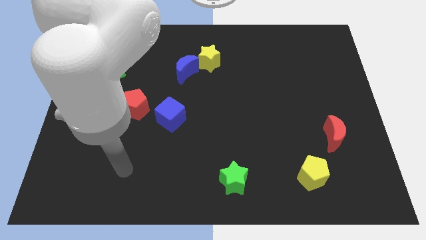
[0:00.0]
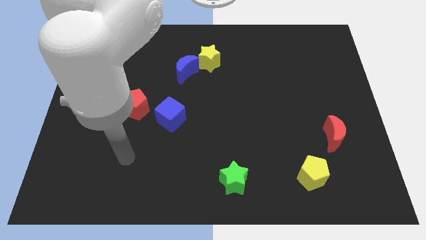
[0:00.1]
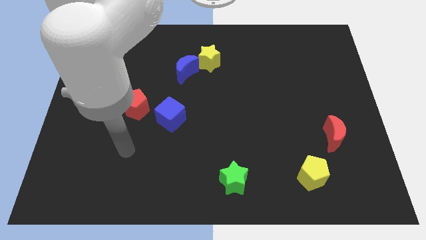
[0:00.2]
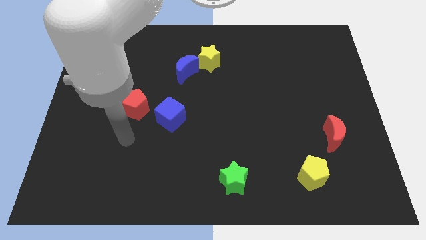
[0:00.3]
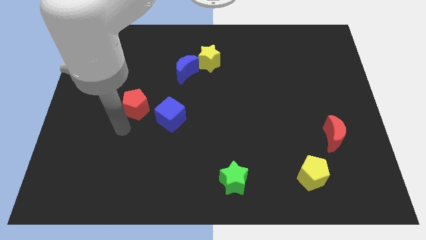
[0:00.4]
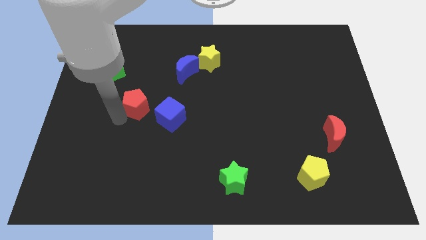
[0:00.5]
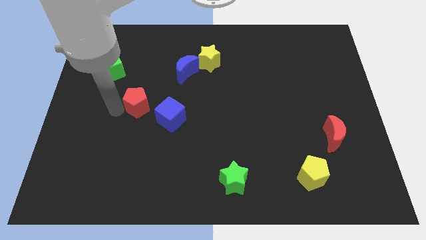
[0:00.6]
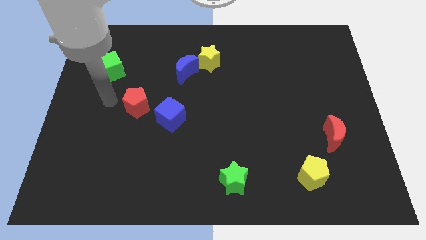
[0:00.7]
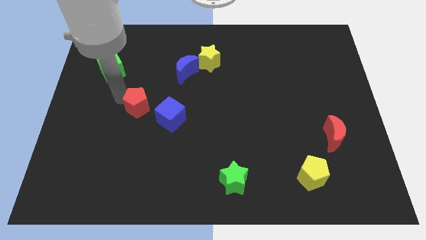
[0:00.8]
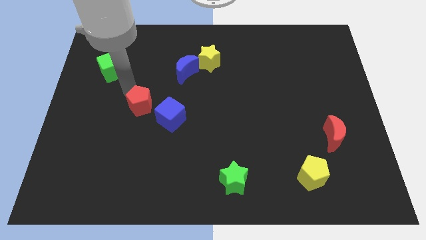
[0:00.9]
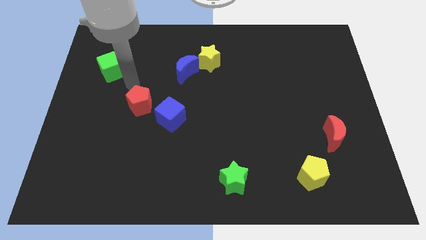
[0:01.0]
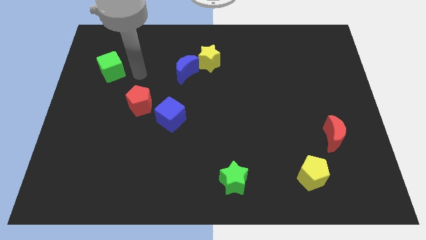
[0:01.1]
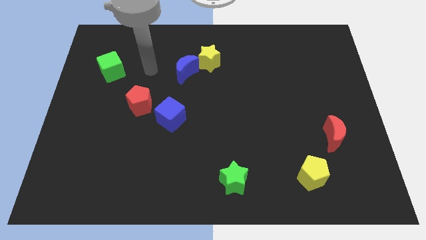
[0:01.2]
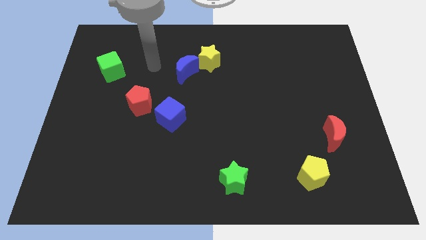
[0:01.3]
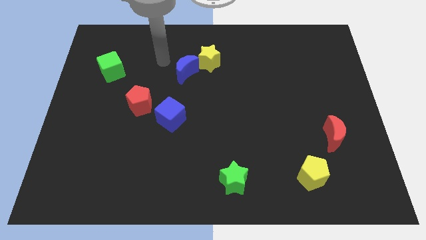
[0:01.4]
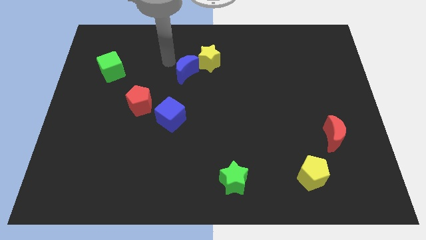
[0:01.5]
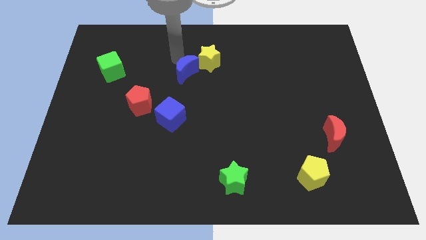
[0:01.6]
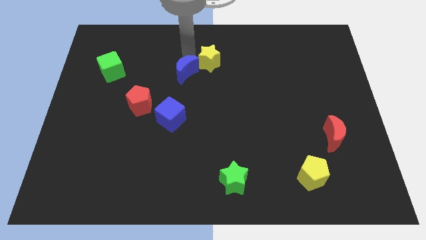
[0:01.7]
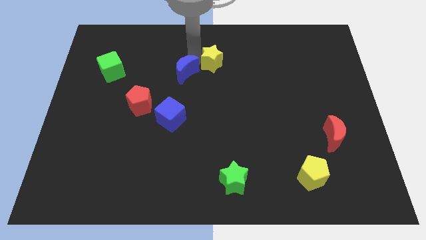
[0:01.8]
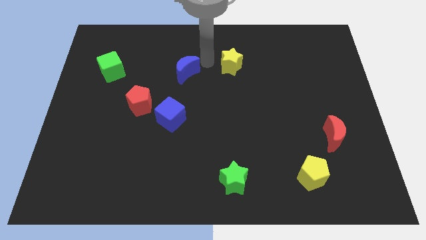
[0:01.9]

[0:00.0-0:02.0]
separate the blue moon from the yellow star

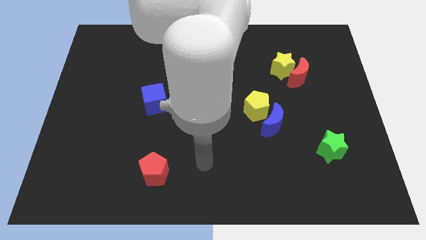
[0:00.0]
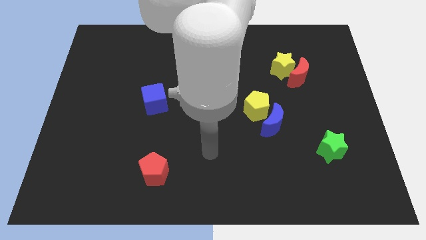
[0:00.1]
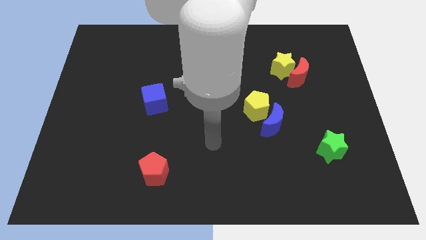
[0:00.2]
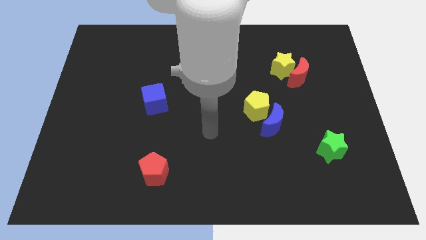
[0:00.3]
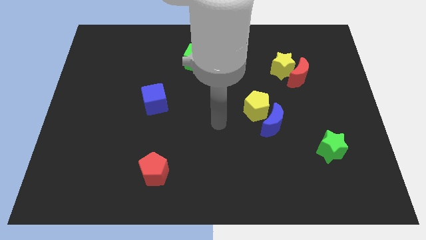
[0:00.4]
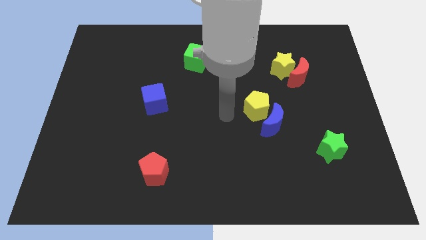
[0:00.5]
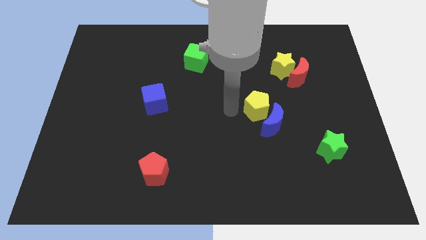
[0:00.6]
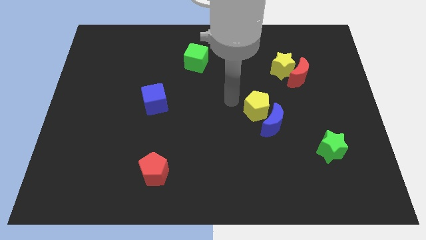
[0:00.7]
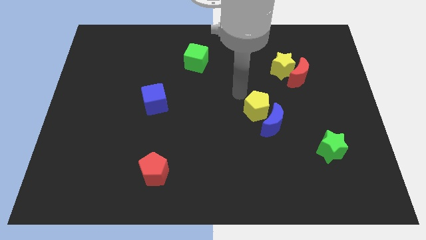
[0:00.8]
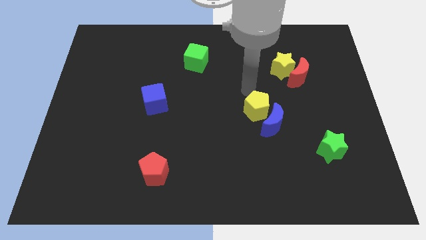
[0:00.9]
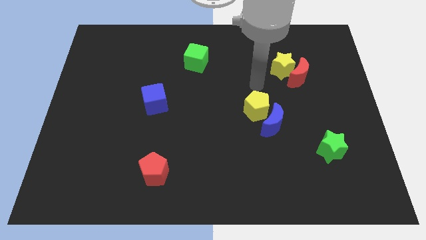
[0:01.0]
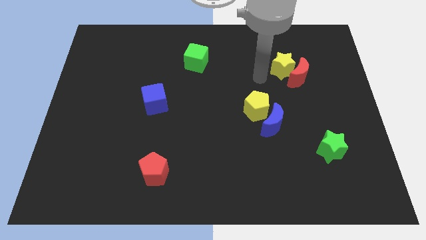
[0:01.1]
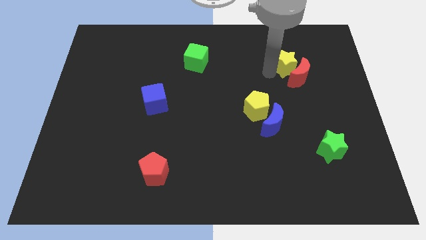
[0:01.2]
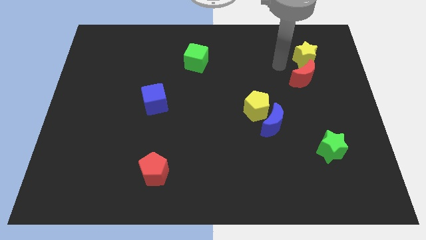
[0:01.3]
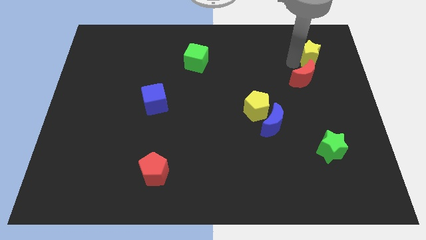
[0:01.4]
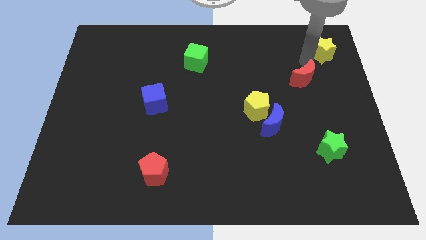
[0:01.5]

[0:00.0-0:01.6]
move the red moon away from the yellow star

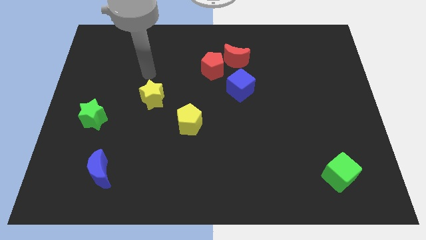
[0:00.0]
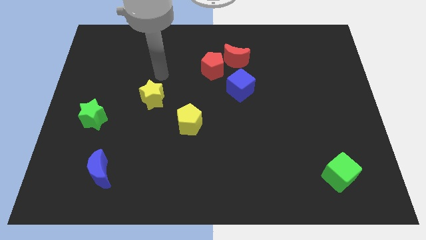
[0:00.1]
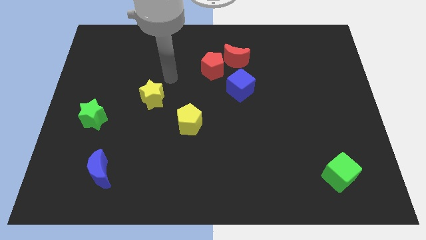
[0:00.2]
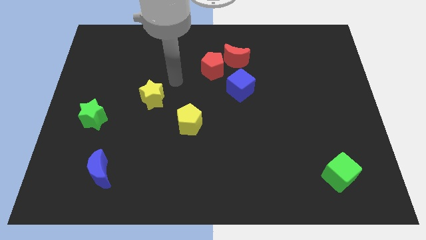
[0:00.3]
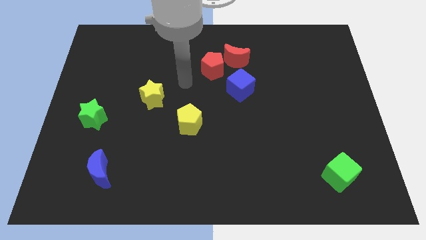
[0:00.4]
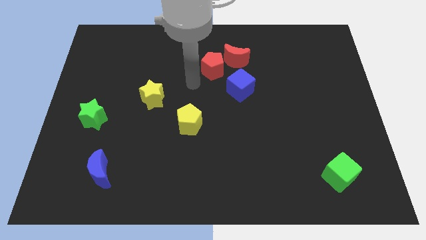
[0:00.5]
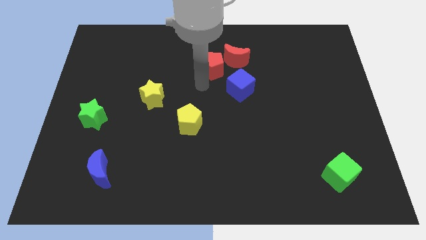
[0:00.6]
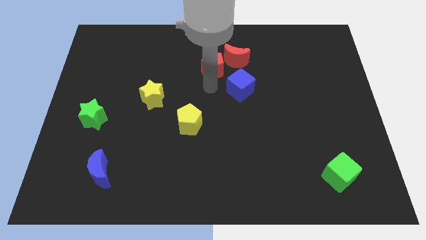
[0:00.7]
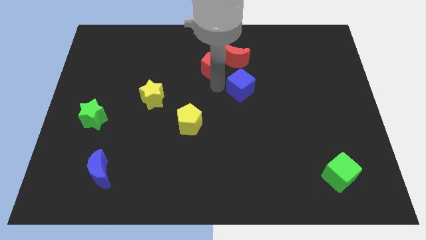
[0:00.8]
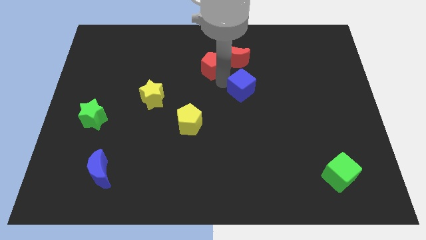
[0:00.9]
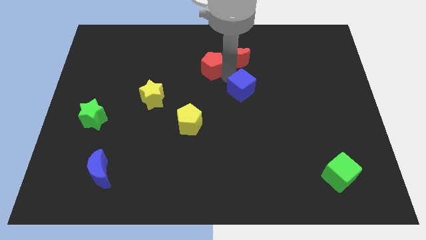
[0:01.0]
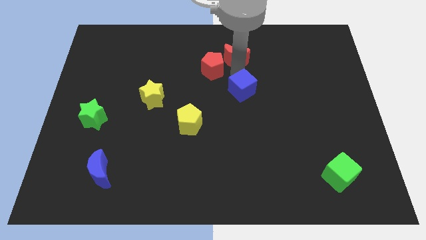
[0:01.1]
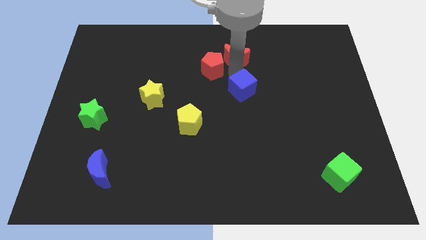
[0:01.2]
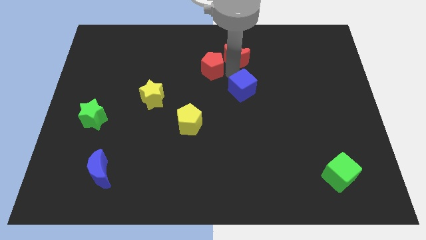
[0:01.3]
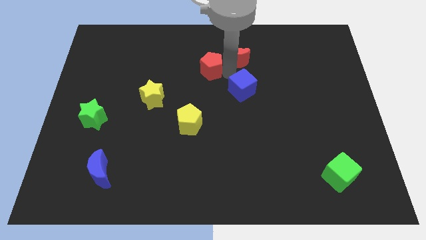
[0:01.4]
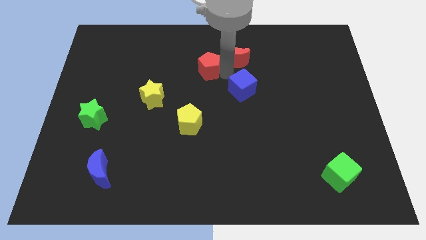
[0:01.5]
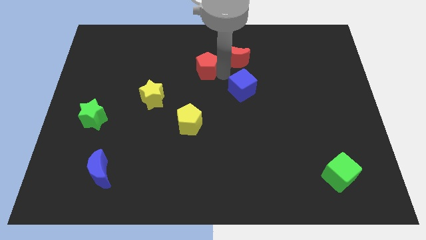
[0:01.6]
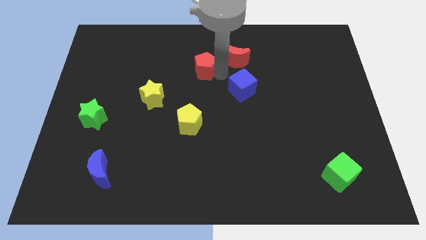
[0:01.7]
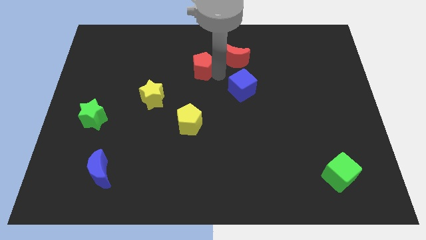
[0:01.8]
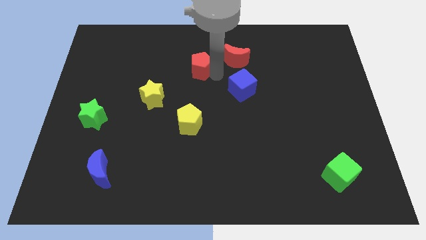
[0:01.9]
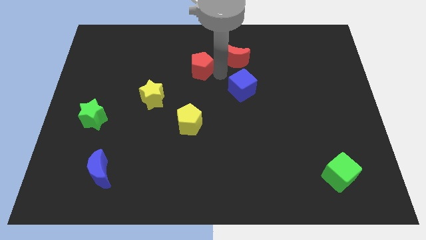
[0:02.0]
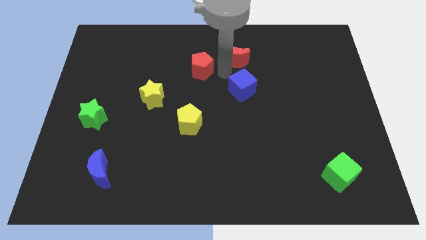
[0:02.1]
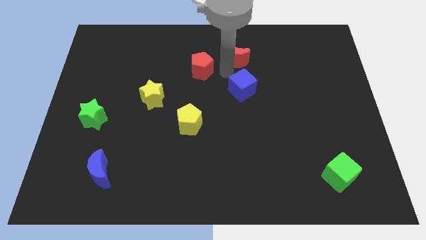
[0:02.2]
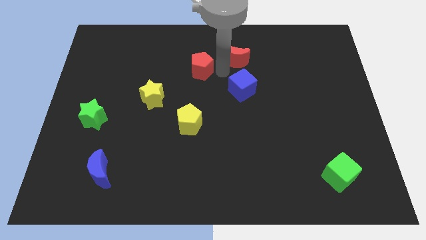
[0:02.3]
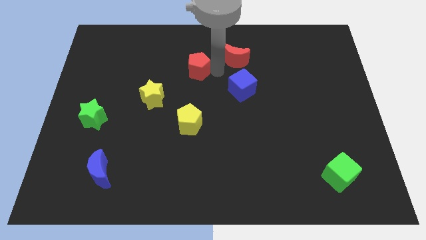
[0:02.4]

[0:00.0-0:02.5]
pull the red pentagon apart from the red moon and blue cube

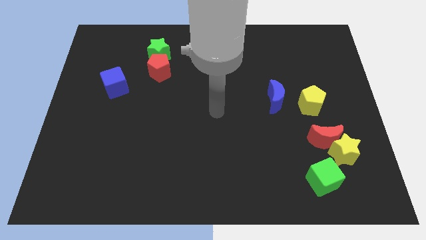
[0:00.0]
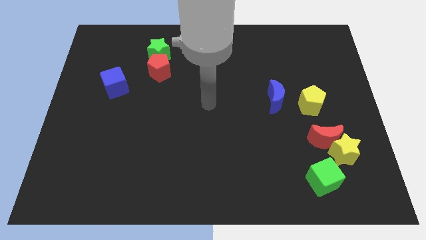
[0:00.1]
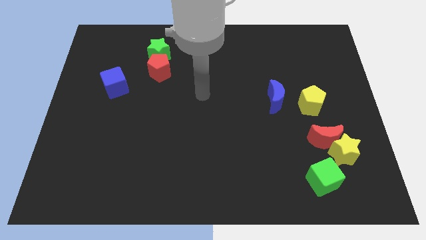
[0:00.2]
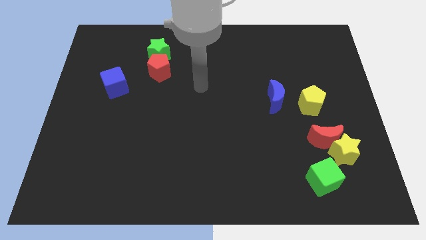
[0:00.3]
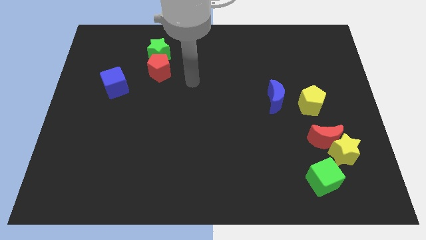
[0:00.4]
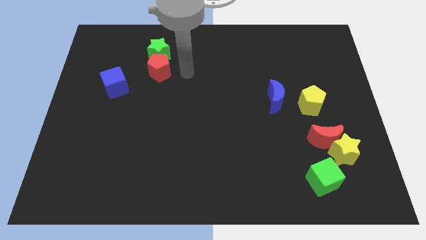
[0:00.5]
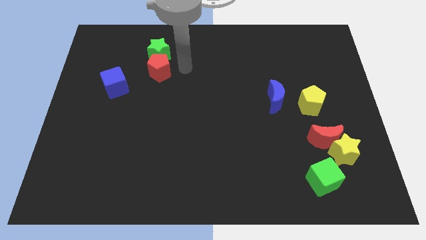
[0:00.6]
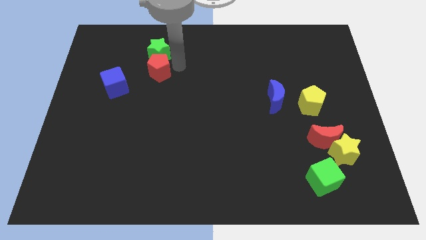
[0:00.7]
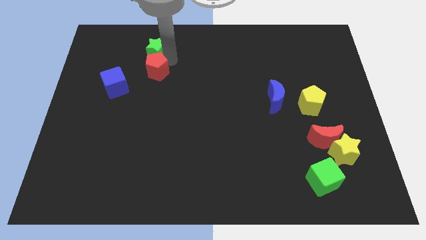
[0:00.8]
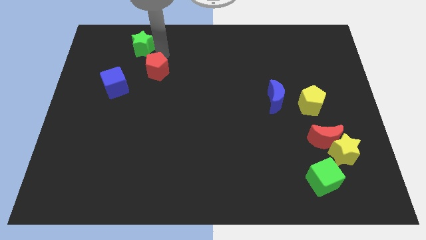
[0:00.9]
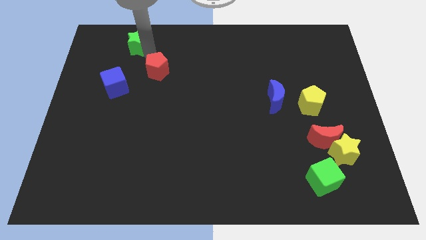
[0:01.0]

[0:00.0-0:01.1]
separate the red pentagon from the green star

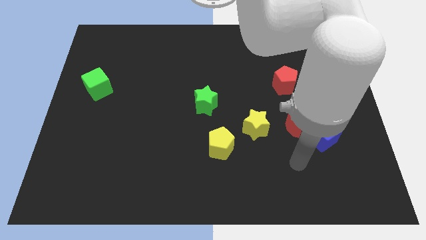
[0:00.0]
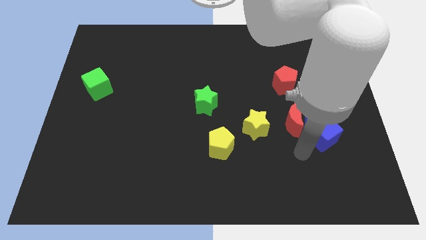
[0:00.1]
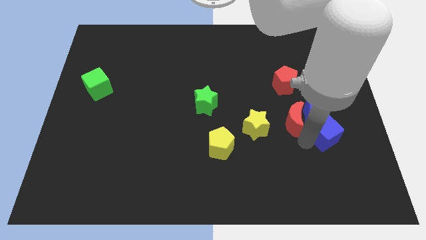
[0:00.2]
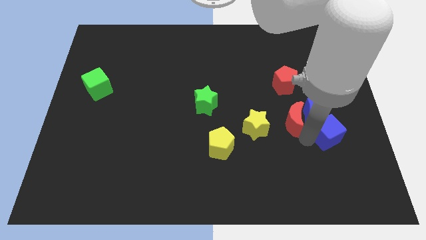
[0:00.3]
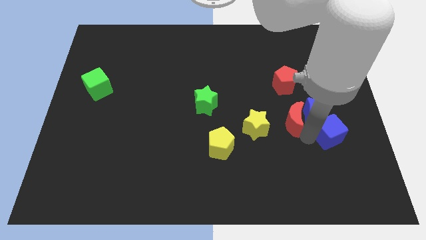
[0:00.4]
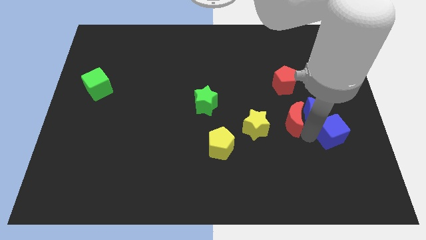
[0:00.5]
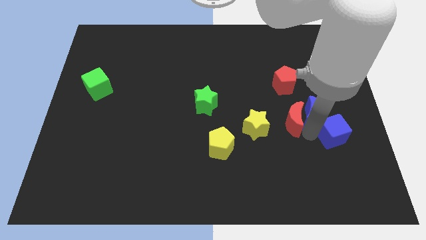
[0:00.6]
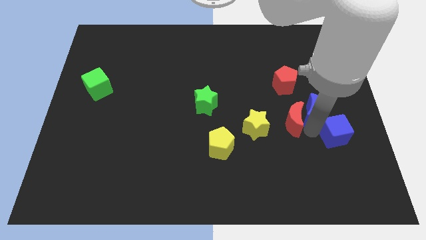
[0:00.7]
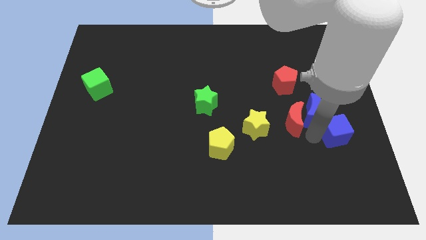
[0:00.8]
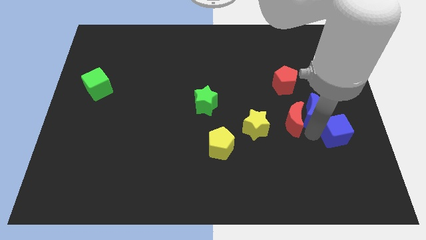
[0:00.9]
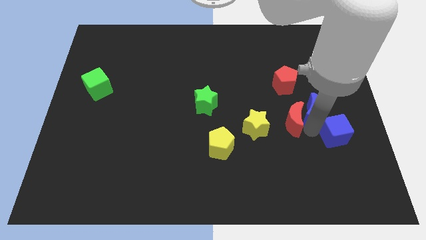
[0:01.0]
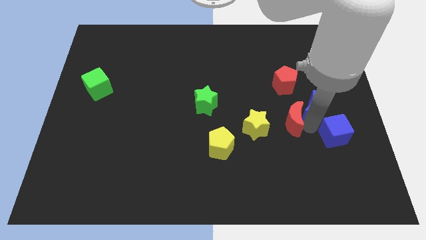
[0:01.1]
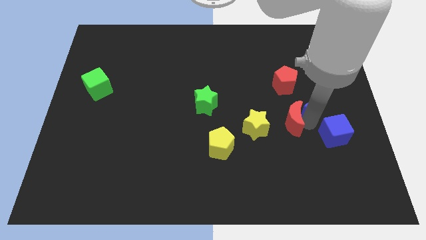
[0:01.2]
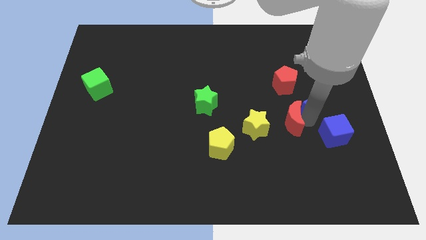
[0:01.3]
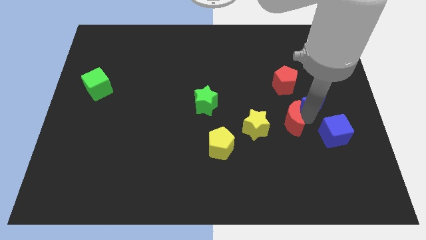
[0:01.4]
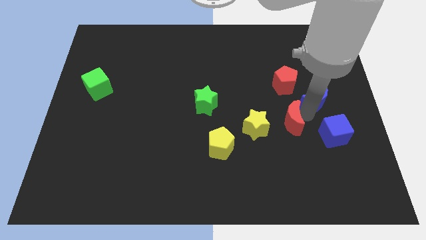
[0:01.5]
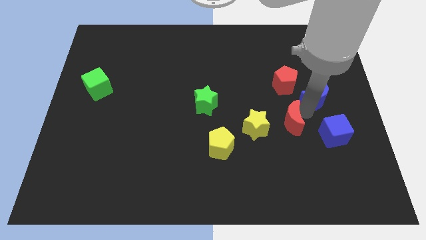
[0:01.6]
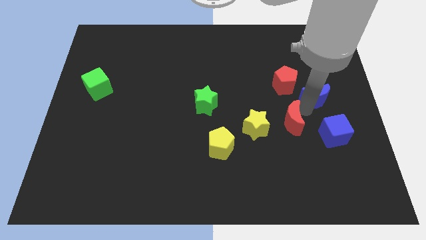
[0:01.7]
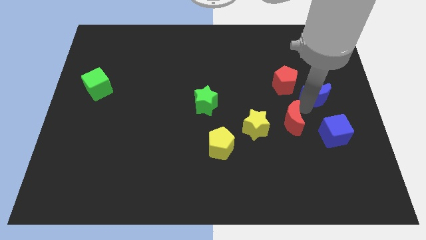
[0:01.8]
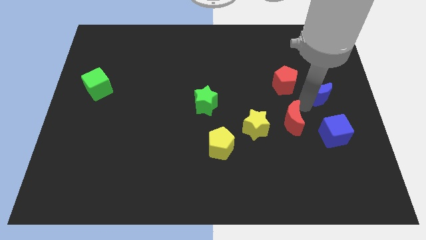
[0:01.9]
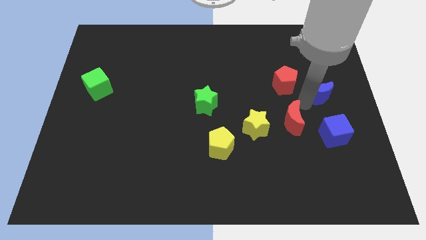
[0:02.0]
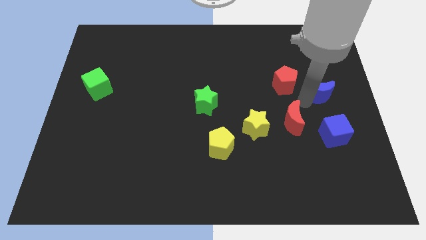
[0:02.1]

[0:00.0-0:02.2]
pull the blue moon apart from the red moon and blue cube
